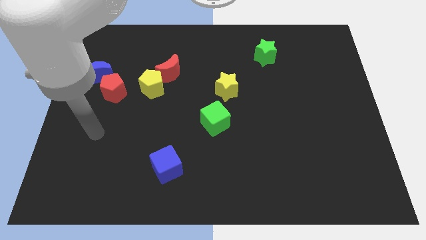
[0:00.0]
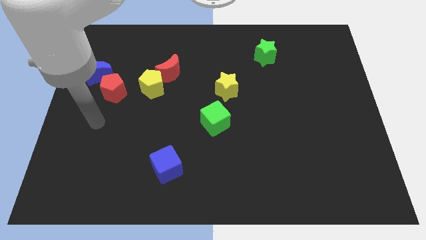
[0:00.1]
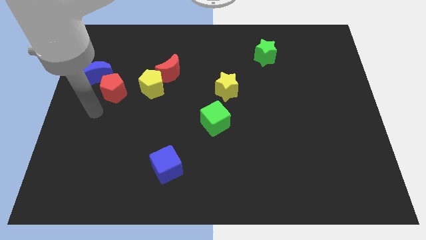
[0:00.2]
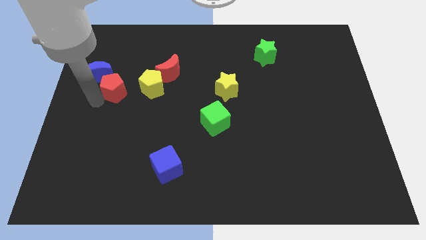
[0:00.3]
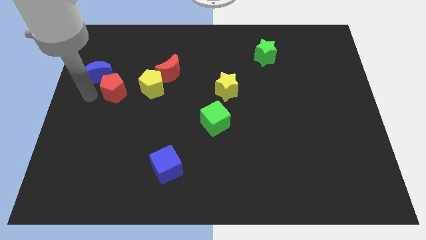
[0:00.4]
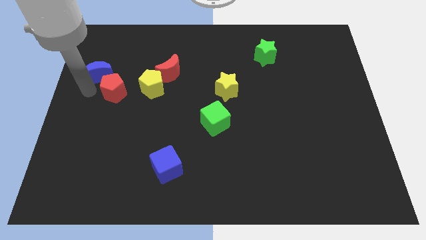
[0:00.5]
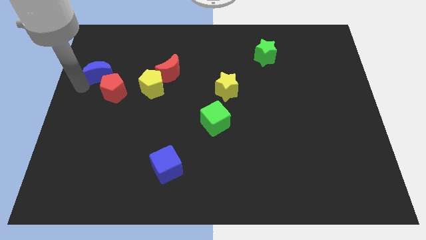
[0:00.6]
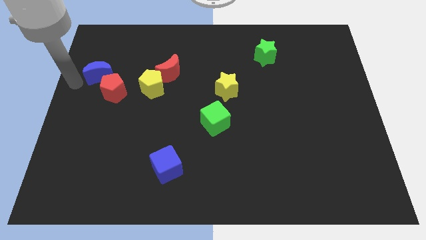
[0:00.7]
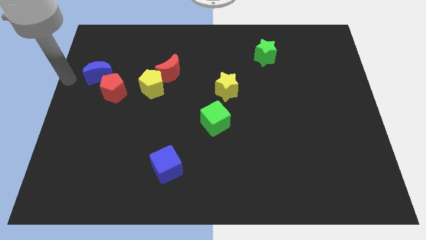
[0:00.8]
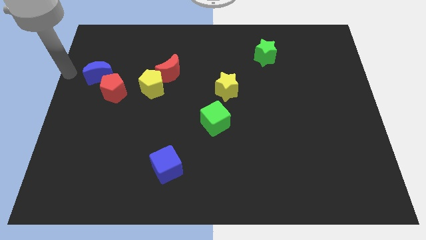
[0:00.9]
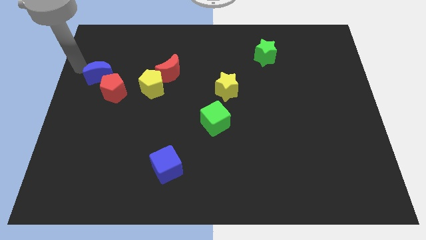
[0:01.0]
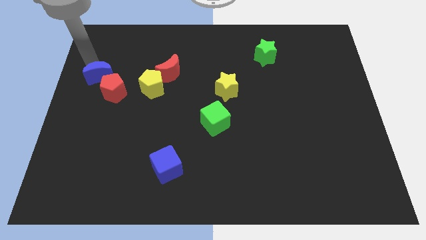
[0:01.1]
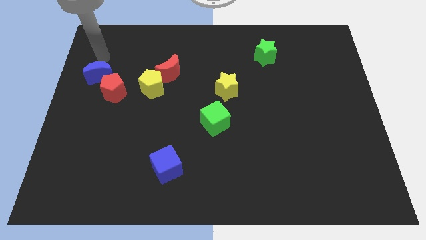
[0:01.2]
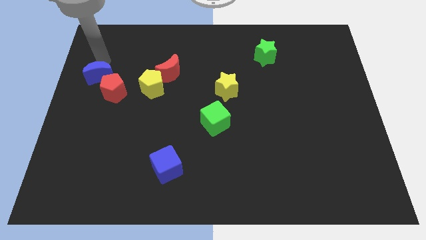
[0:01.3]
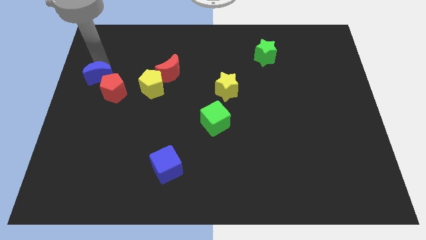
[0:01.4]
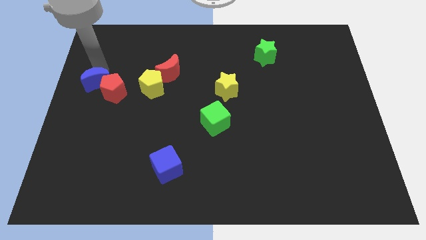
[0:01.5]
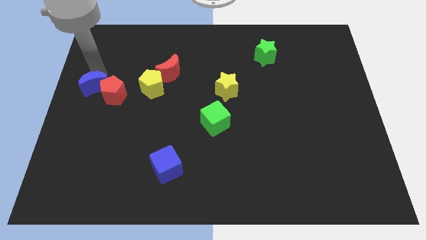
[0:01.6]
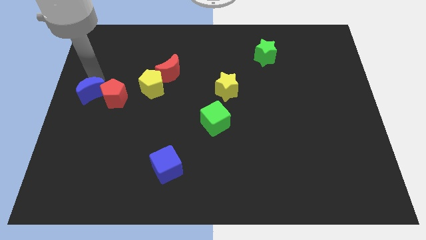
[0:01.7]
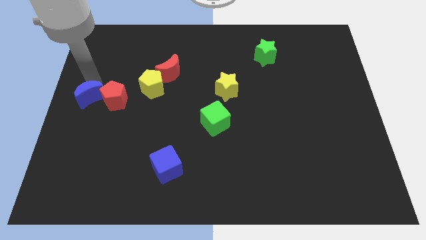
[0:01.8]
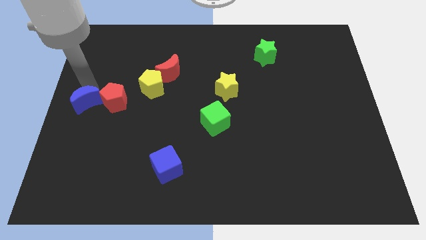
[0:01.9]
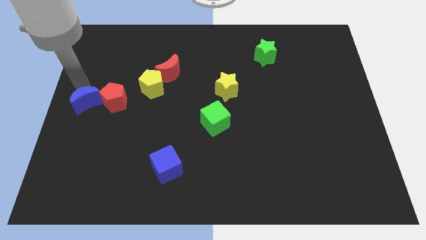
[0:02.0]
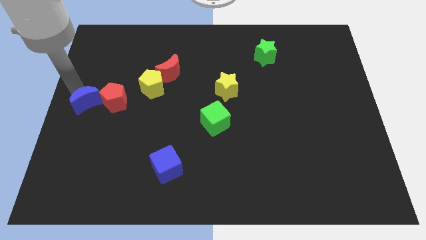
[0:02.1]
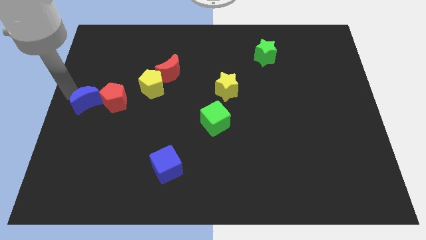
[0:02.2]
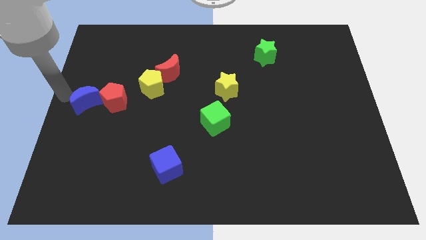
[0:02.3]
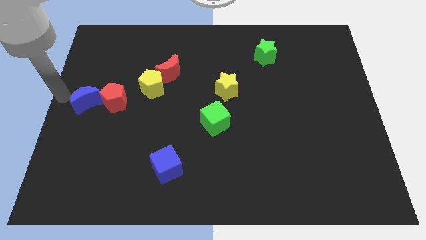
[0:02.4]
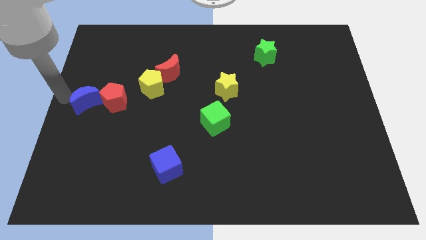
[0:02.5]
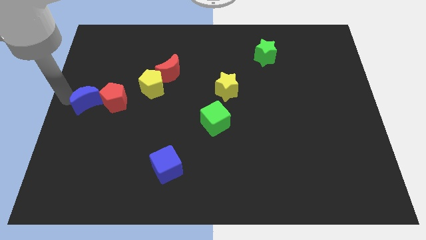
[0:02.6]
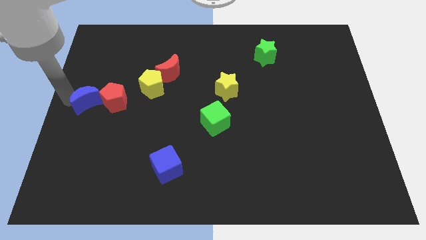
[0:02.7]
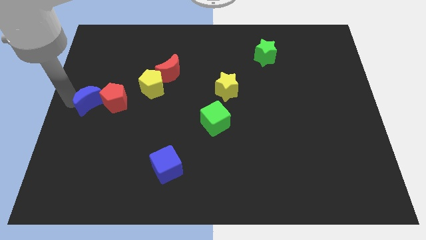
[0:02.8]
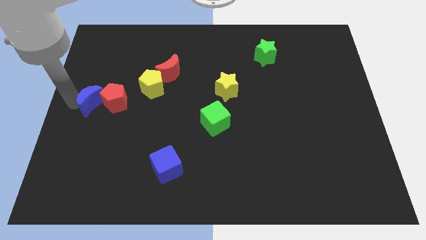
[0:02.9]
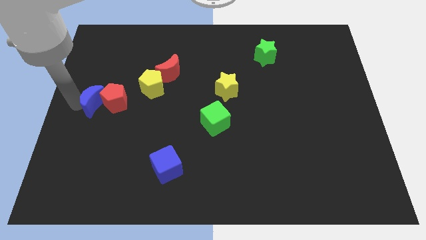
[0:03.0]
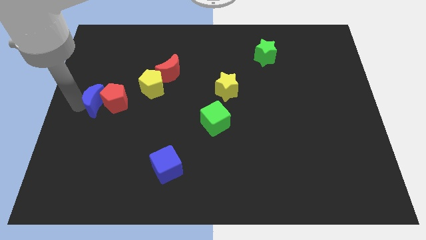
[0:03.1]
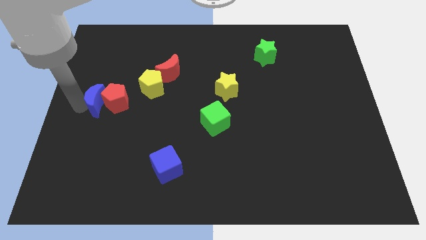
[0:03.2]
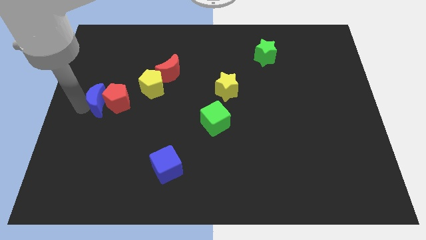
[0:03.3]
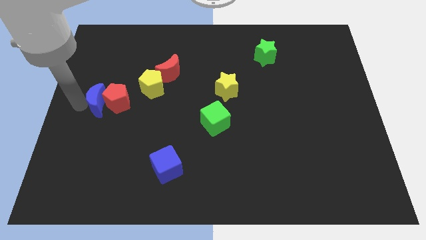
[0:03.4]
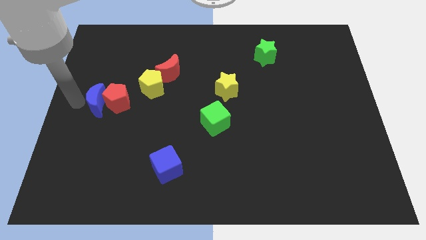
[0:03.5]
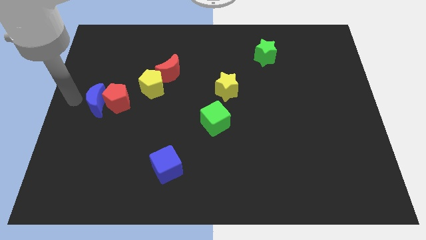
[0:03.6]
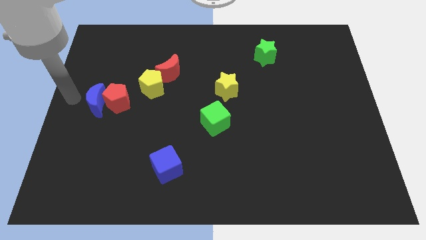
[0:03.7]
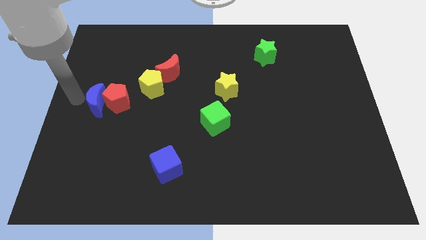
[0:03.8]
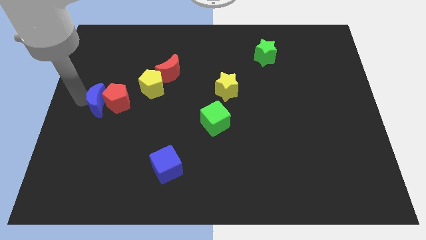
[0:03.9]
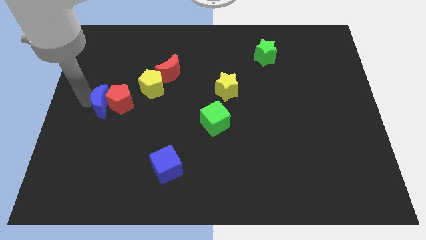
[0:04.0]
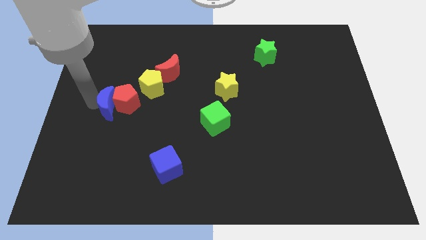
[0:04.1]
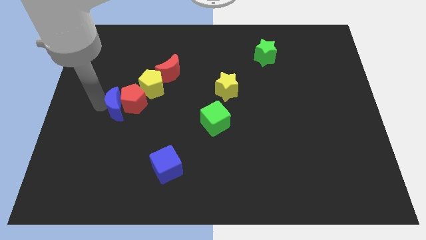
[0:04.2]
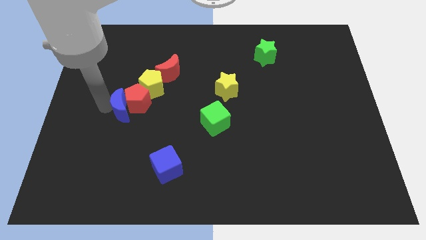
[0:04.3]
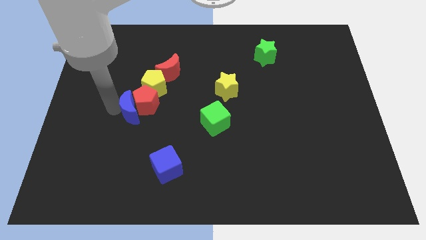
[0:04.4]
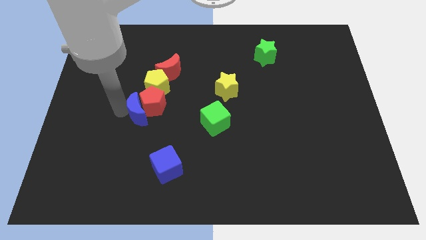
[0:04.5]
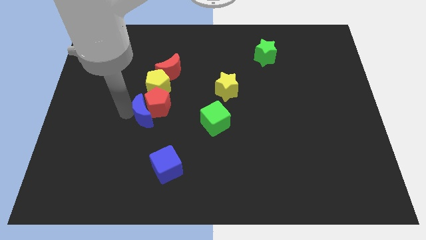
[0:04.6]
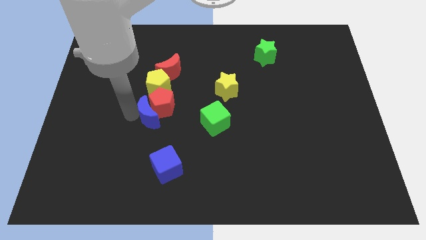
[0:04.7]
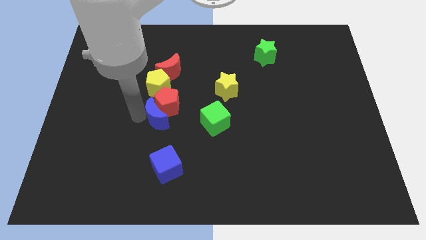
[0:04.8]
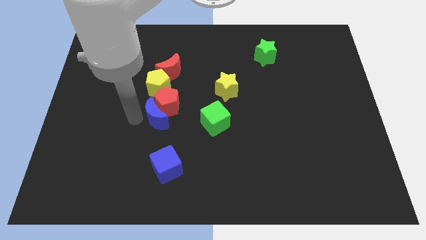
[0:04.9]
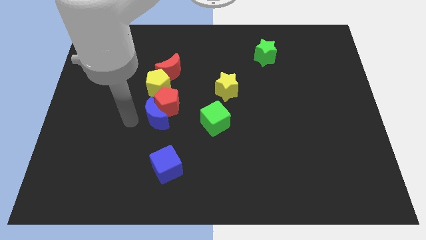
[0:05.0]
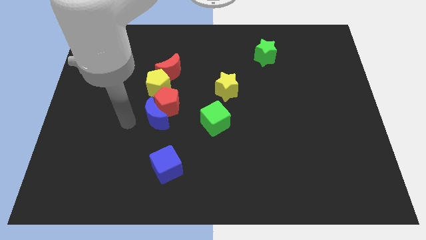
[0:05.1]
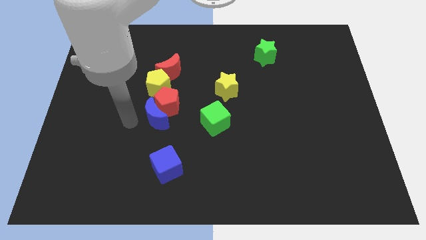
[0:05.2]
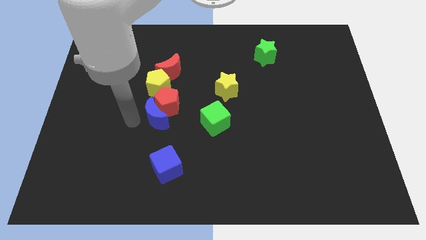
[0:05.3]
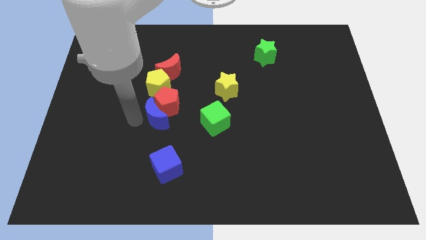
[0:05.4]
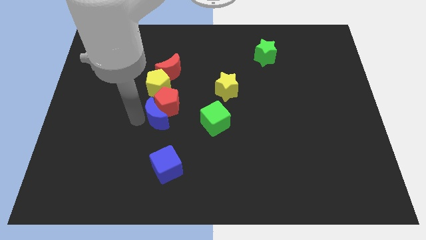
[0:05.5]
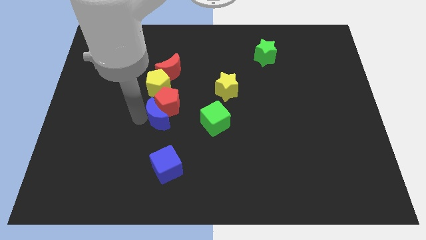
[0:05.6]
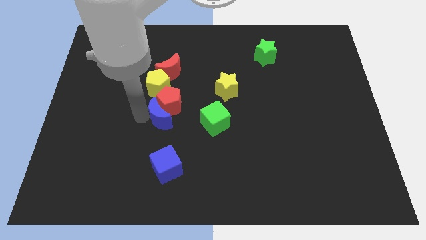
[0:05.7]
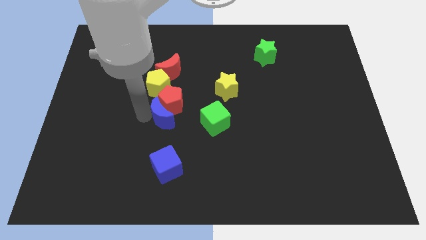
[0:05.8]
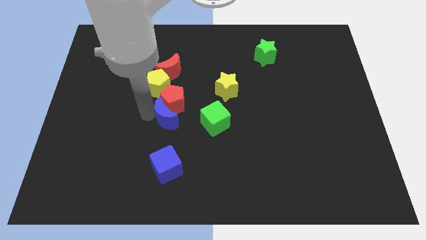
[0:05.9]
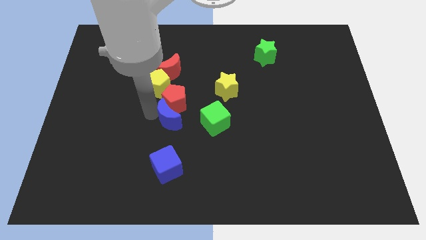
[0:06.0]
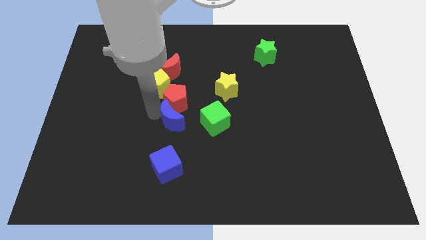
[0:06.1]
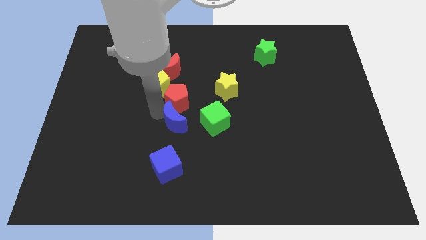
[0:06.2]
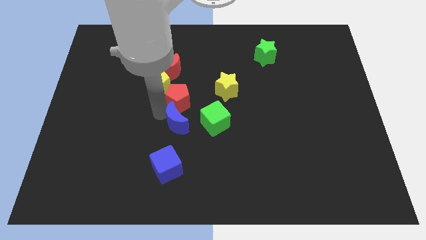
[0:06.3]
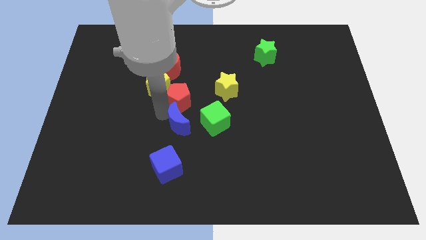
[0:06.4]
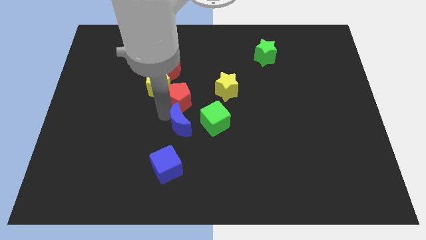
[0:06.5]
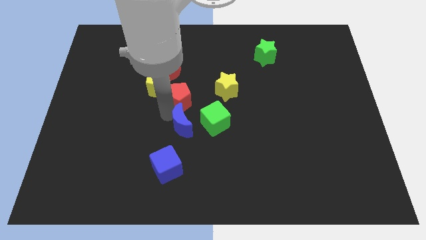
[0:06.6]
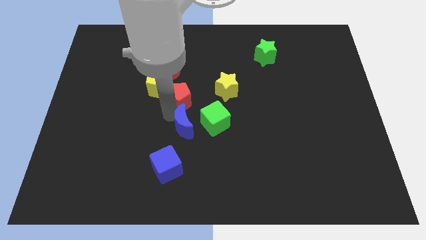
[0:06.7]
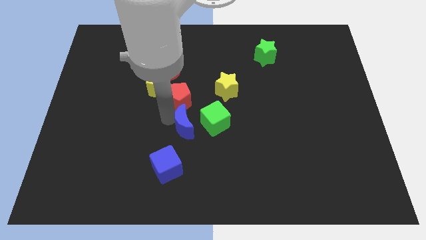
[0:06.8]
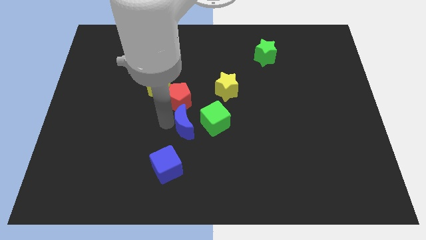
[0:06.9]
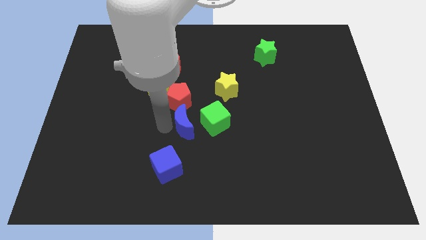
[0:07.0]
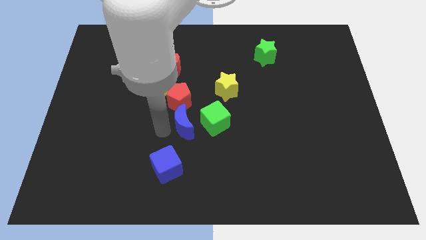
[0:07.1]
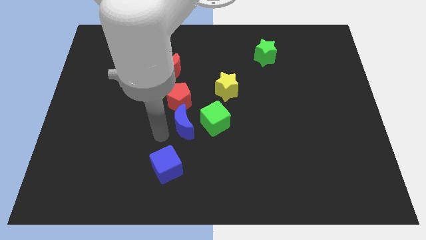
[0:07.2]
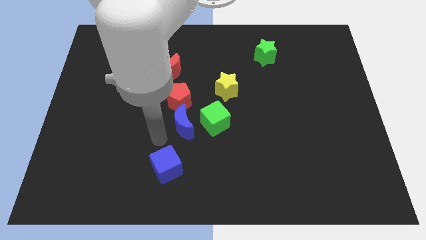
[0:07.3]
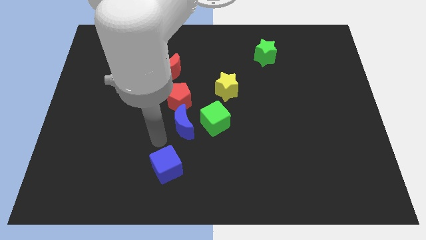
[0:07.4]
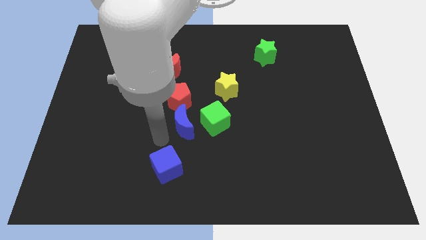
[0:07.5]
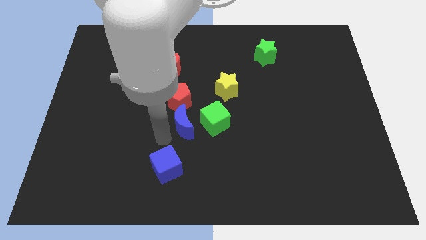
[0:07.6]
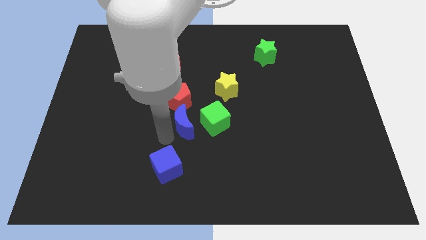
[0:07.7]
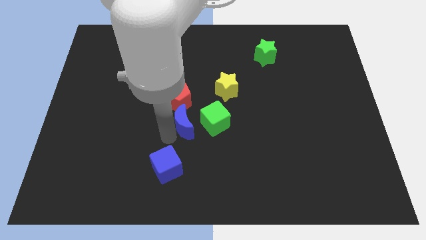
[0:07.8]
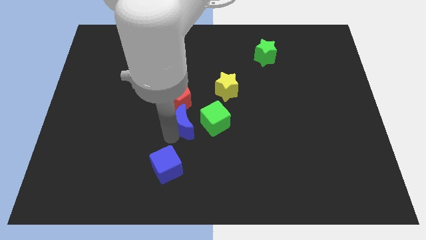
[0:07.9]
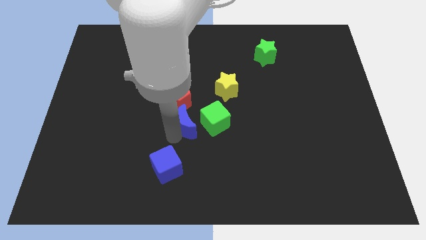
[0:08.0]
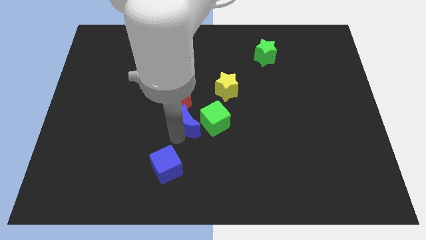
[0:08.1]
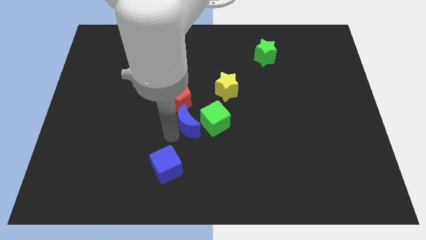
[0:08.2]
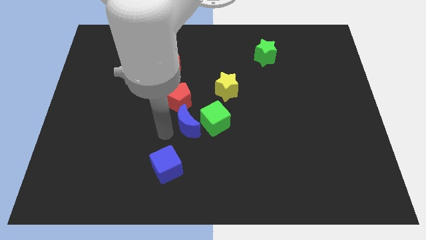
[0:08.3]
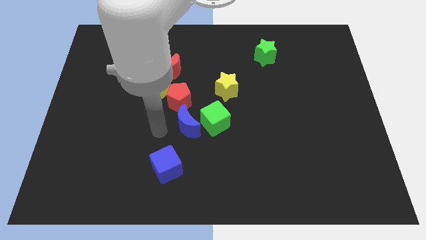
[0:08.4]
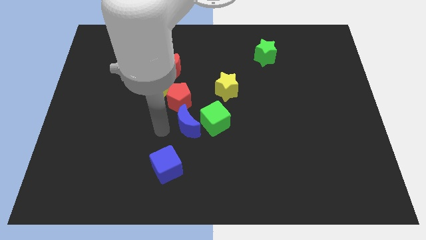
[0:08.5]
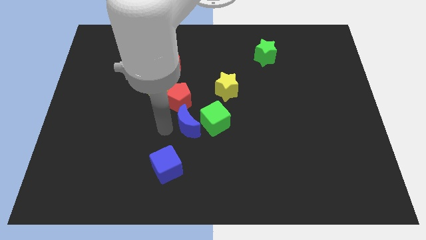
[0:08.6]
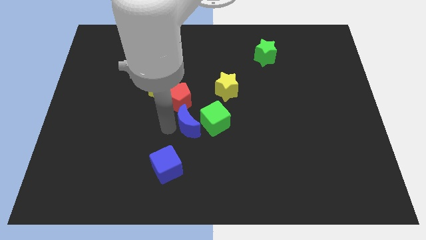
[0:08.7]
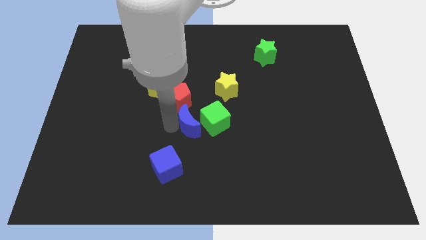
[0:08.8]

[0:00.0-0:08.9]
move the blue moon towards the green cube
